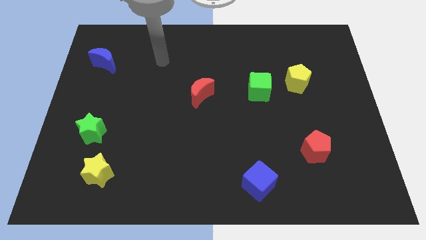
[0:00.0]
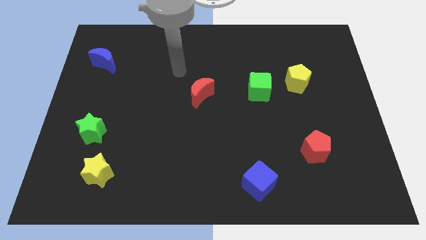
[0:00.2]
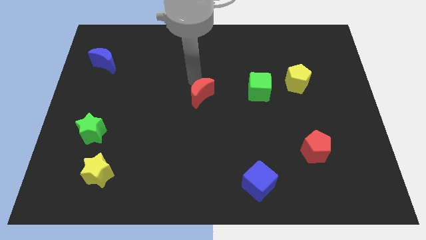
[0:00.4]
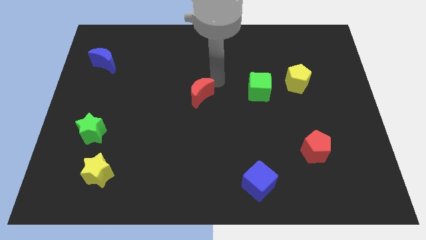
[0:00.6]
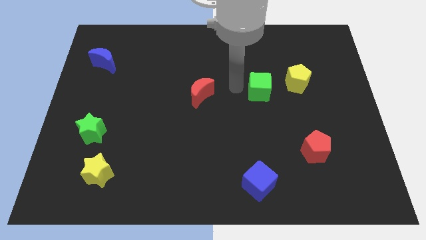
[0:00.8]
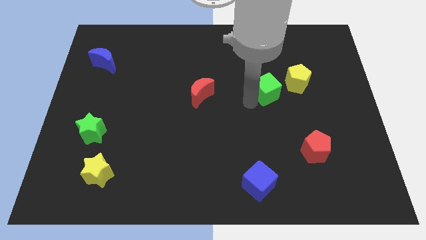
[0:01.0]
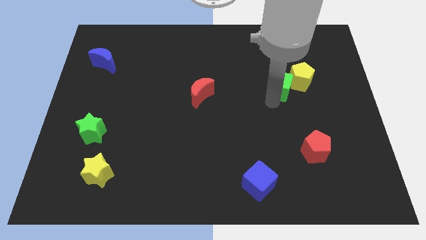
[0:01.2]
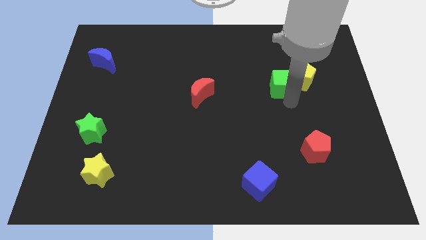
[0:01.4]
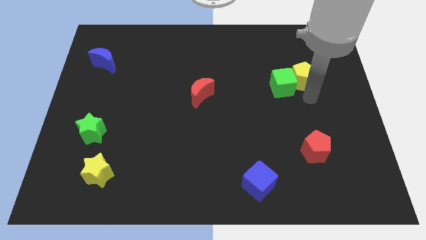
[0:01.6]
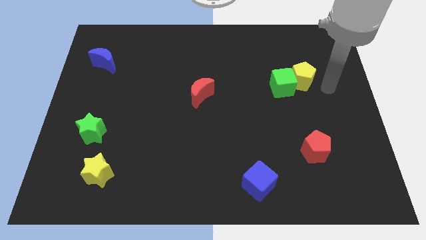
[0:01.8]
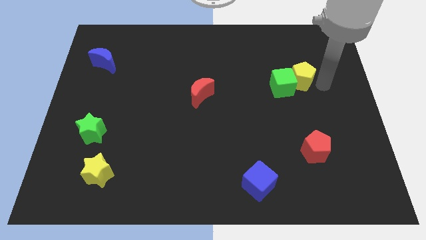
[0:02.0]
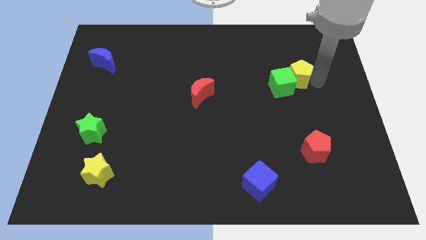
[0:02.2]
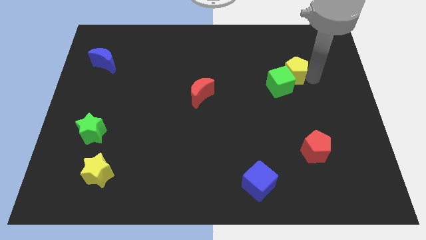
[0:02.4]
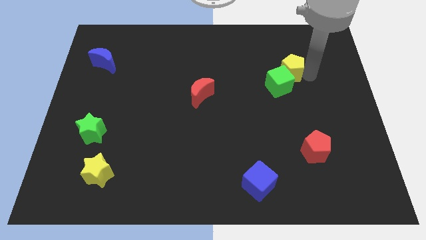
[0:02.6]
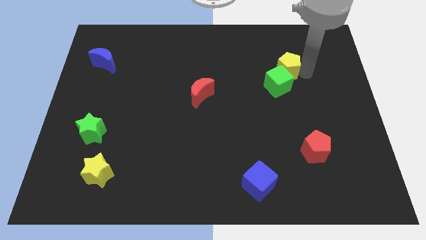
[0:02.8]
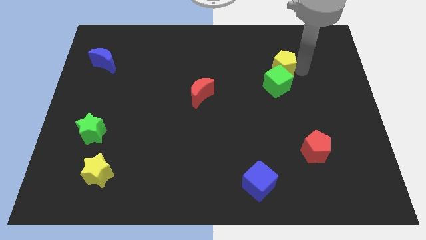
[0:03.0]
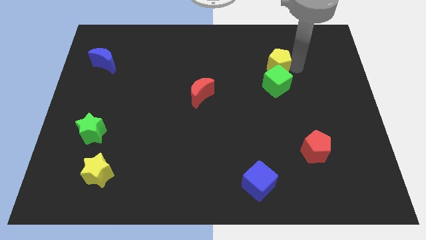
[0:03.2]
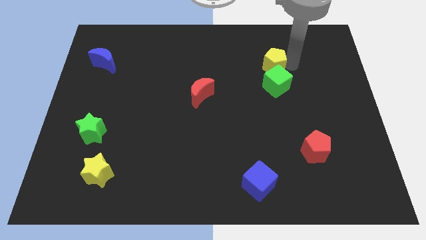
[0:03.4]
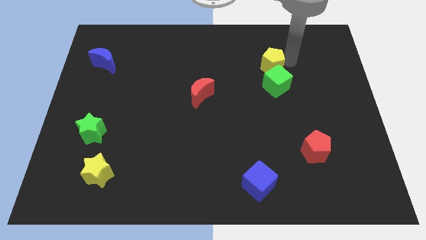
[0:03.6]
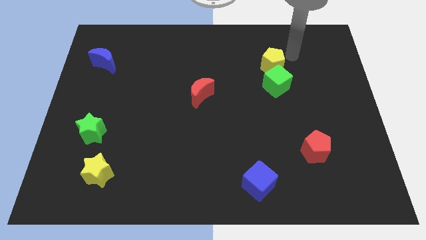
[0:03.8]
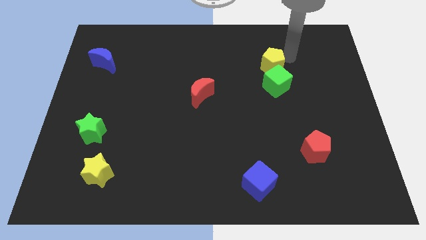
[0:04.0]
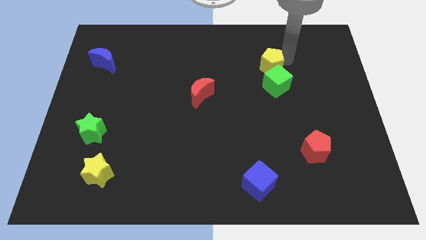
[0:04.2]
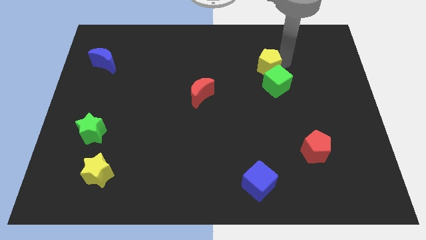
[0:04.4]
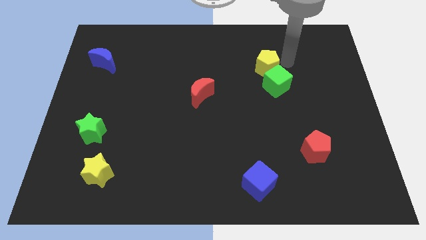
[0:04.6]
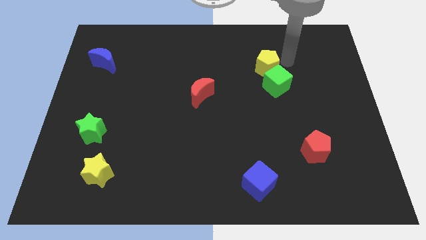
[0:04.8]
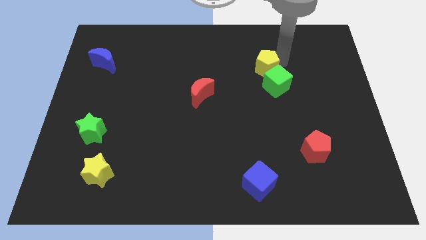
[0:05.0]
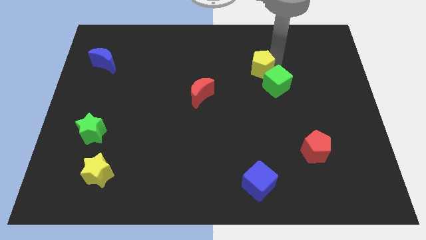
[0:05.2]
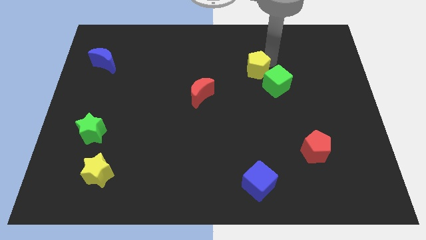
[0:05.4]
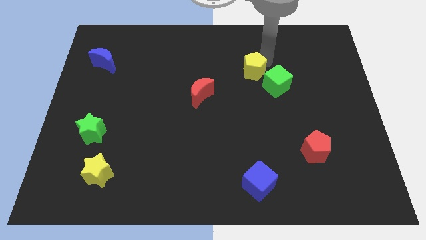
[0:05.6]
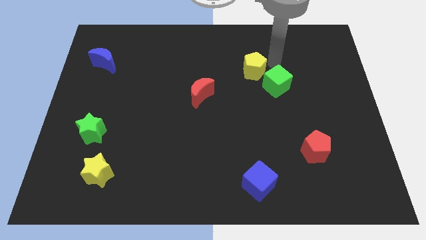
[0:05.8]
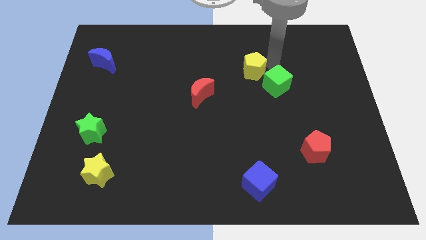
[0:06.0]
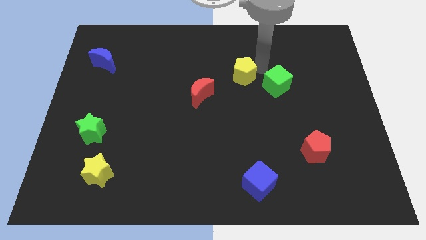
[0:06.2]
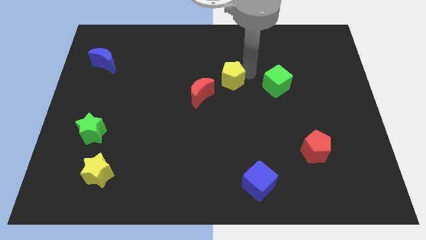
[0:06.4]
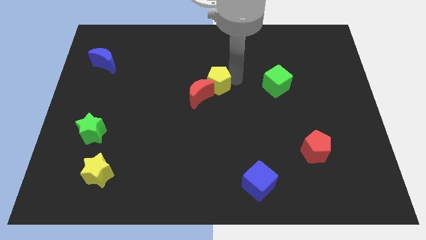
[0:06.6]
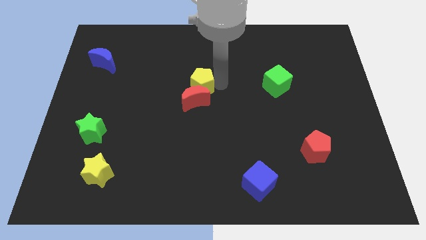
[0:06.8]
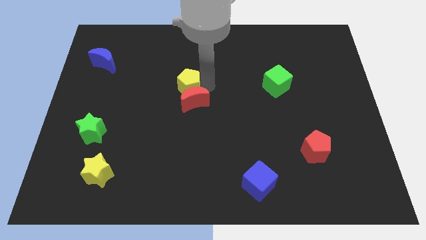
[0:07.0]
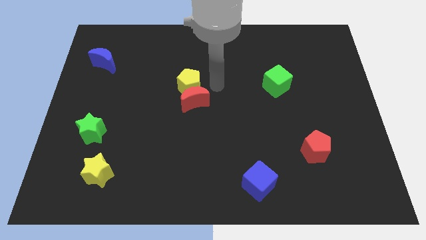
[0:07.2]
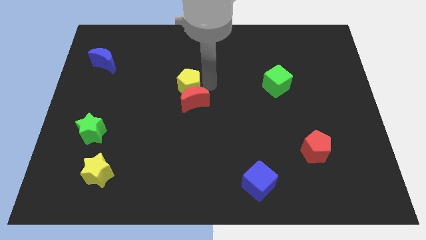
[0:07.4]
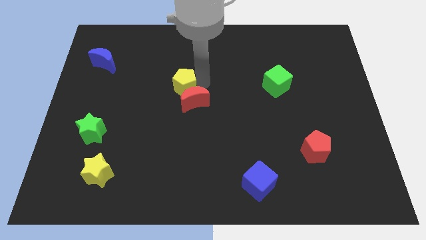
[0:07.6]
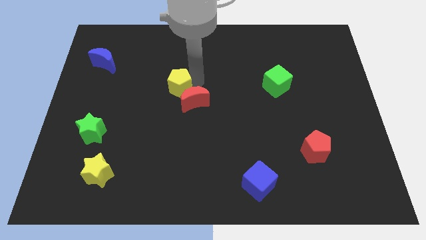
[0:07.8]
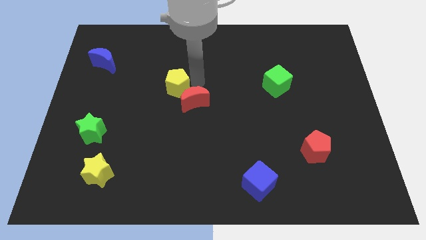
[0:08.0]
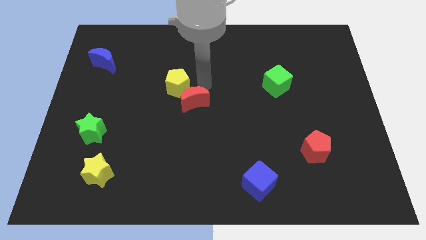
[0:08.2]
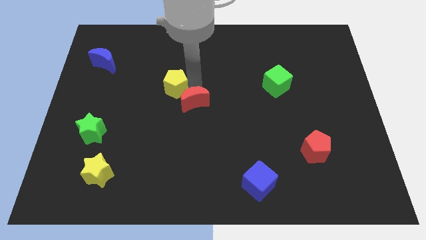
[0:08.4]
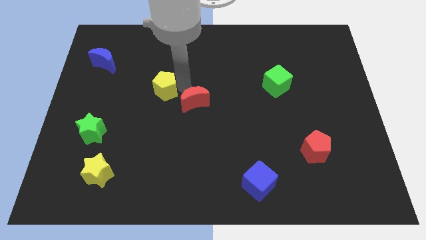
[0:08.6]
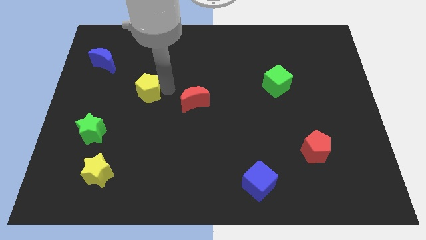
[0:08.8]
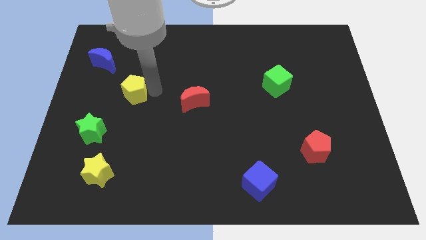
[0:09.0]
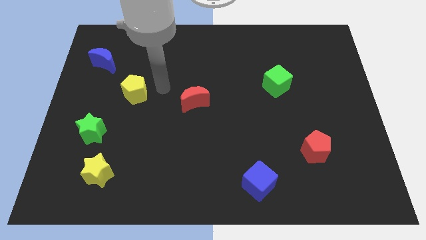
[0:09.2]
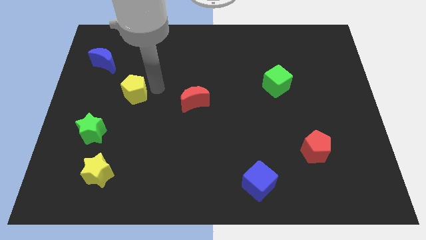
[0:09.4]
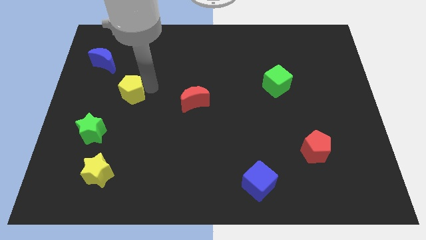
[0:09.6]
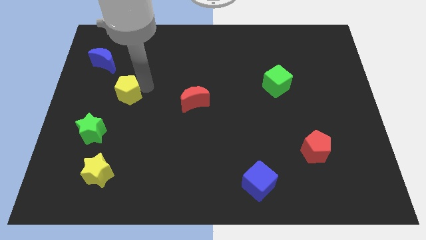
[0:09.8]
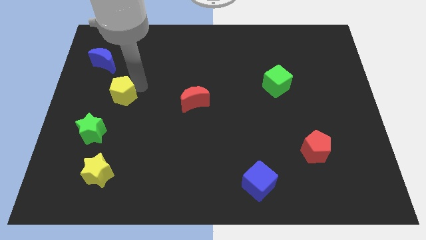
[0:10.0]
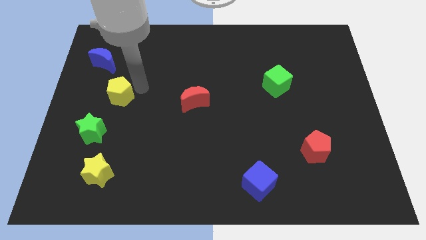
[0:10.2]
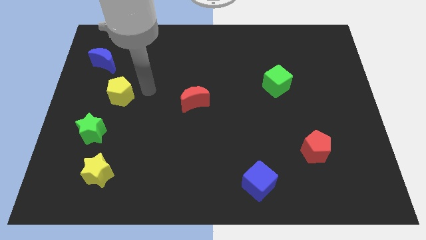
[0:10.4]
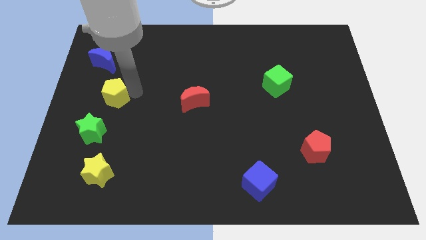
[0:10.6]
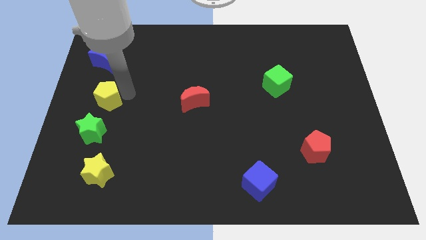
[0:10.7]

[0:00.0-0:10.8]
put the yellow pentagon to the left side

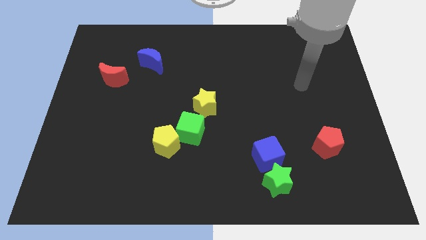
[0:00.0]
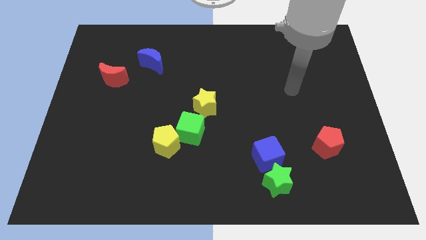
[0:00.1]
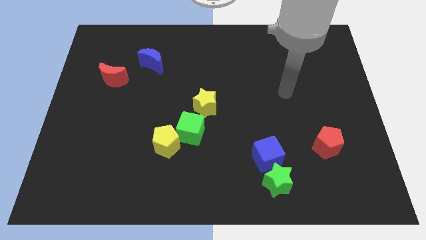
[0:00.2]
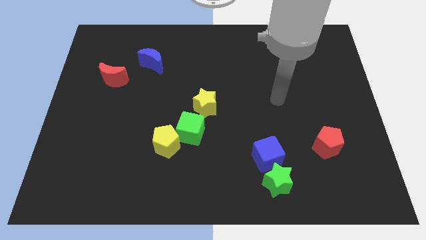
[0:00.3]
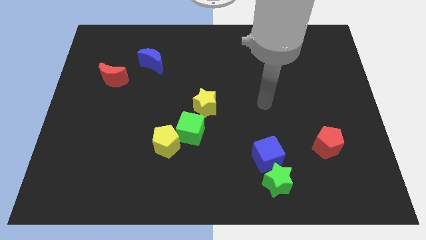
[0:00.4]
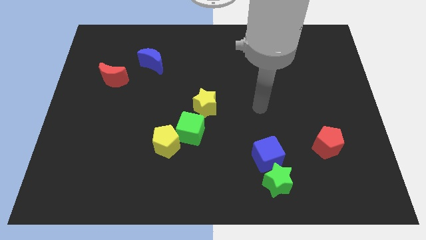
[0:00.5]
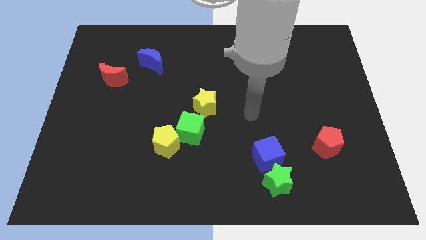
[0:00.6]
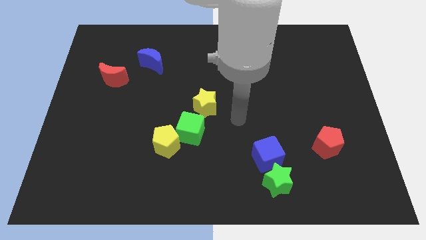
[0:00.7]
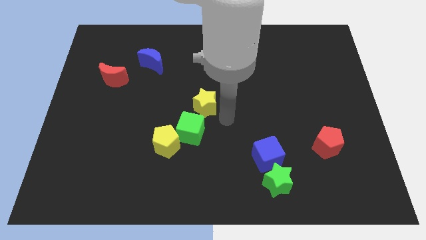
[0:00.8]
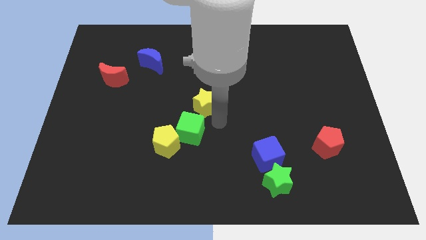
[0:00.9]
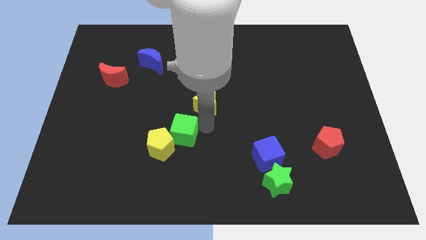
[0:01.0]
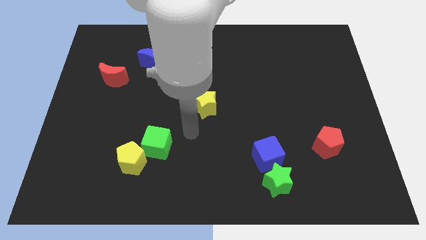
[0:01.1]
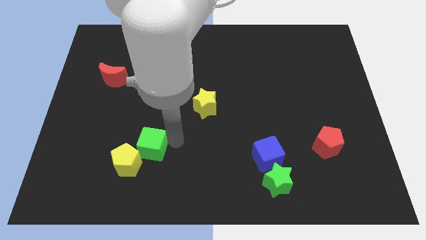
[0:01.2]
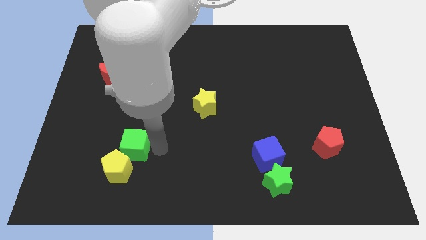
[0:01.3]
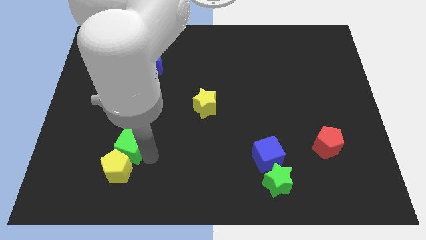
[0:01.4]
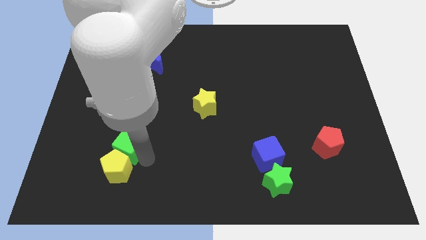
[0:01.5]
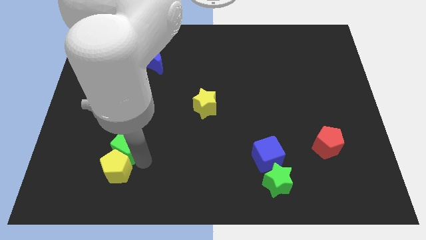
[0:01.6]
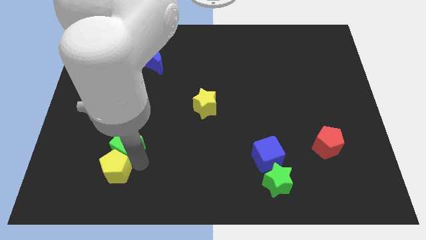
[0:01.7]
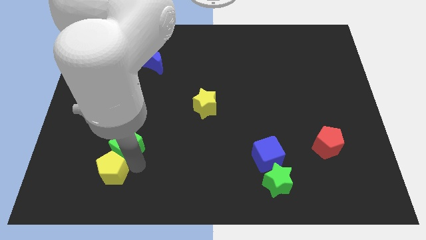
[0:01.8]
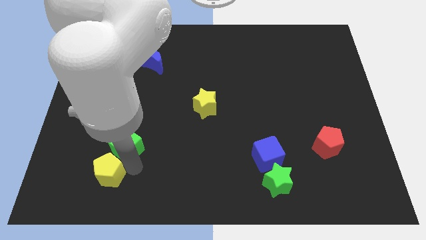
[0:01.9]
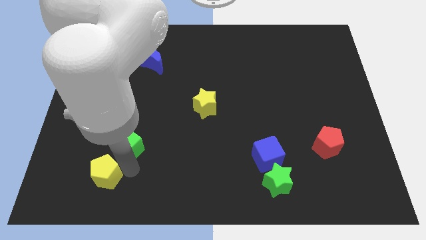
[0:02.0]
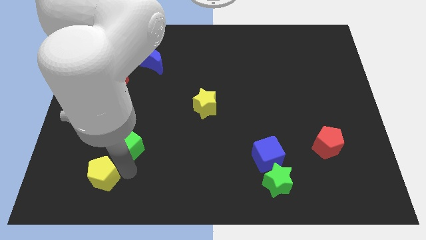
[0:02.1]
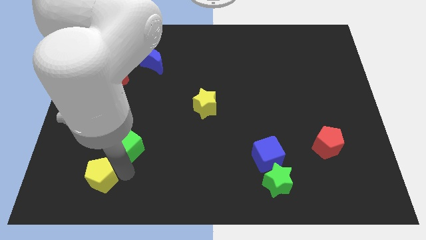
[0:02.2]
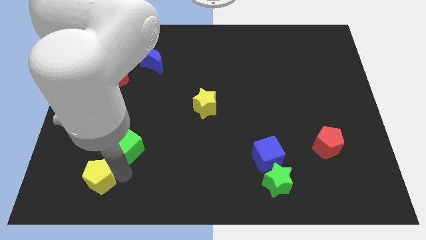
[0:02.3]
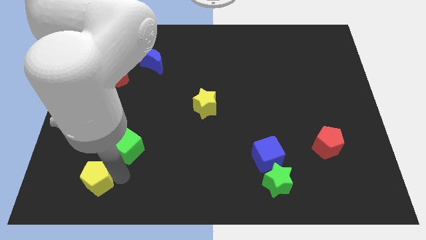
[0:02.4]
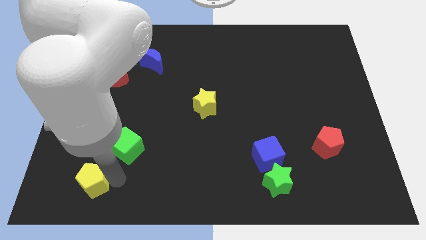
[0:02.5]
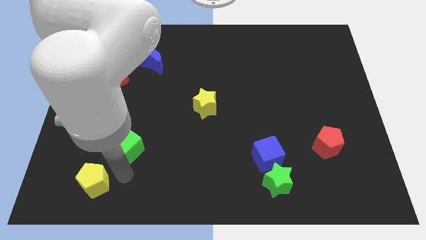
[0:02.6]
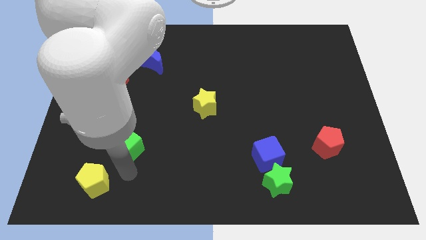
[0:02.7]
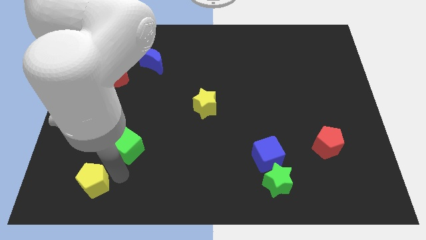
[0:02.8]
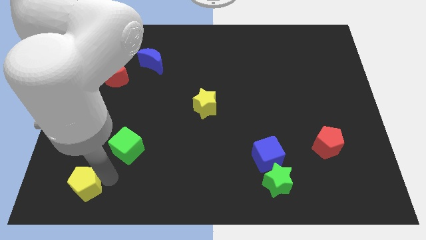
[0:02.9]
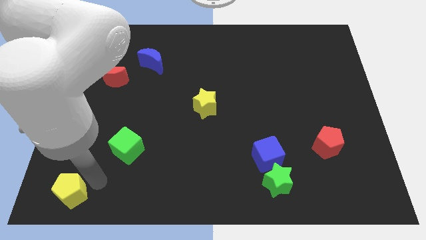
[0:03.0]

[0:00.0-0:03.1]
push the yellow pentagon to the bottom left
